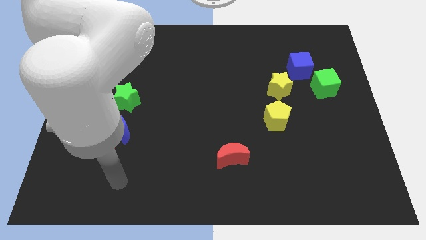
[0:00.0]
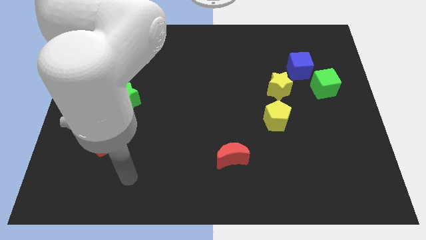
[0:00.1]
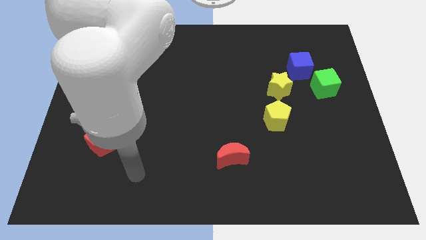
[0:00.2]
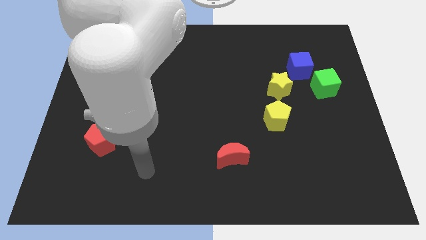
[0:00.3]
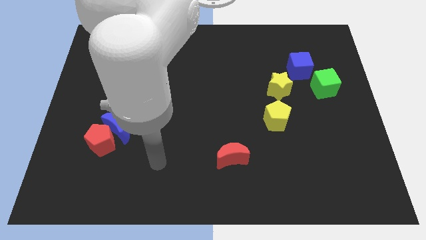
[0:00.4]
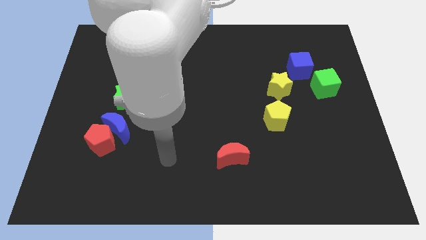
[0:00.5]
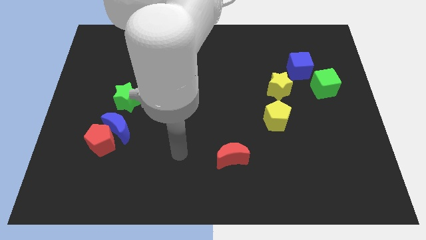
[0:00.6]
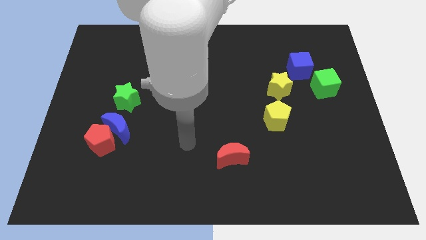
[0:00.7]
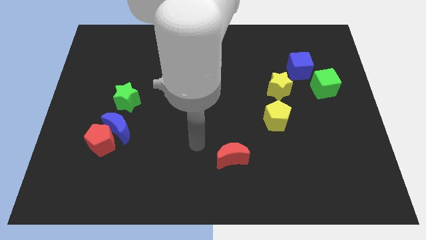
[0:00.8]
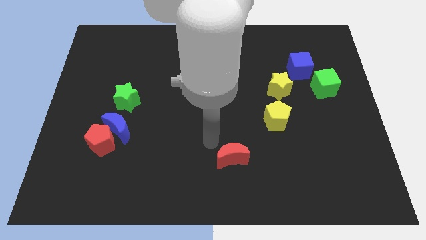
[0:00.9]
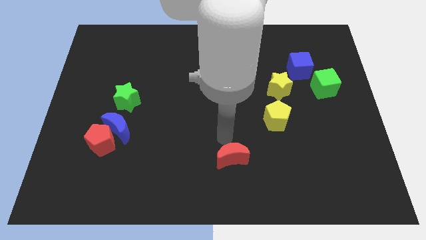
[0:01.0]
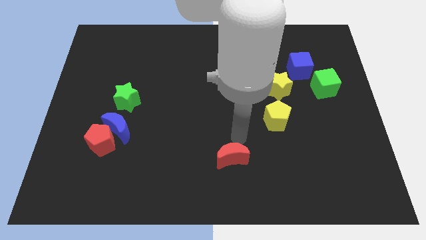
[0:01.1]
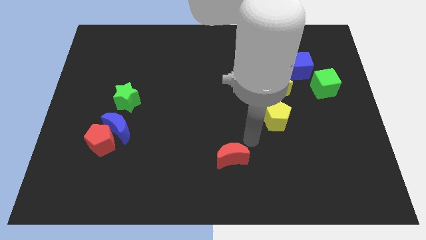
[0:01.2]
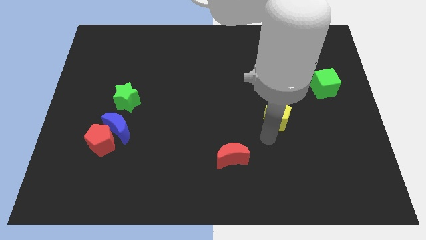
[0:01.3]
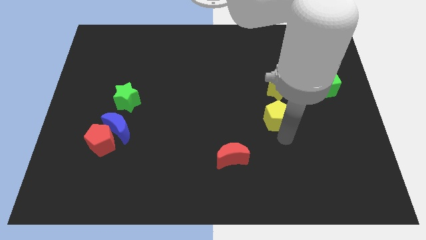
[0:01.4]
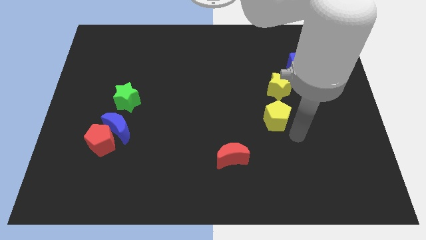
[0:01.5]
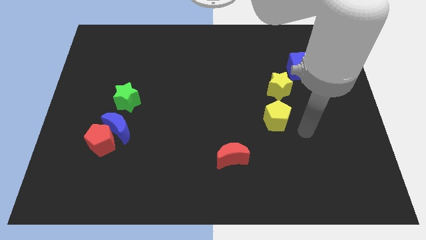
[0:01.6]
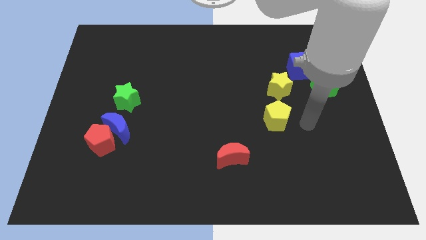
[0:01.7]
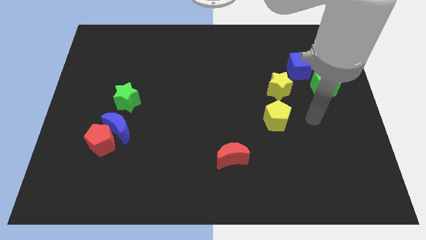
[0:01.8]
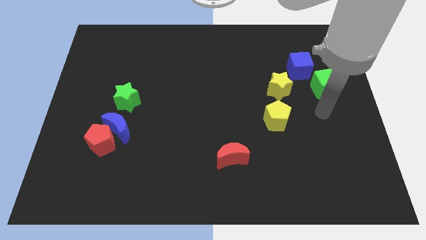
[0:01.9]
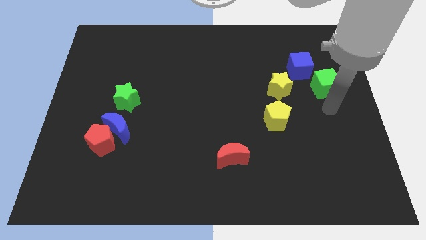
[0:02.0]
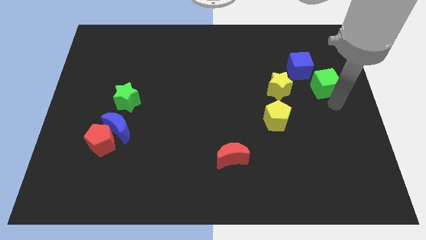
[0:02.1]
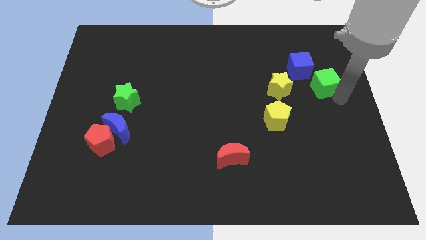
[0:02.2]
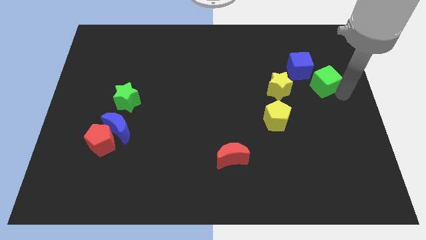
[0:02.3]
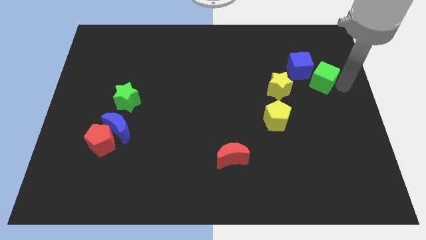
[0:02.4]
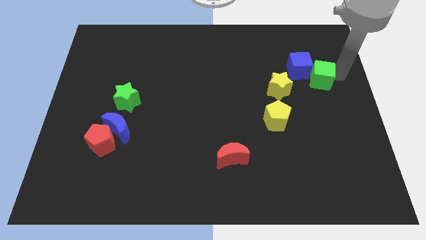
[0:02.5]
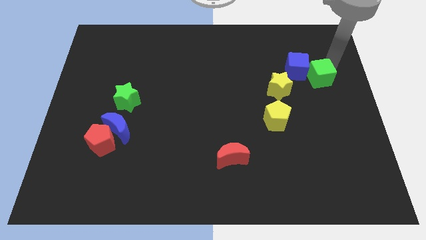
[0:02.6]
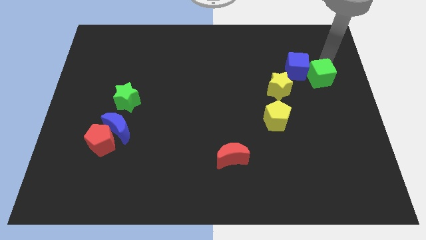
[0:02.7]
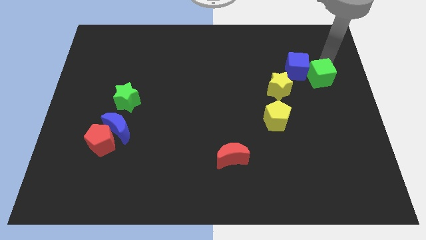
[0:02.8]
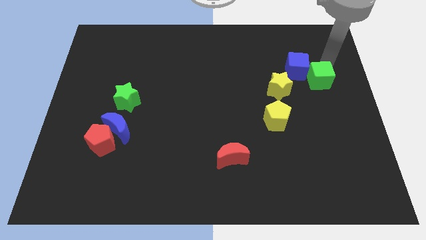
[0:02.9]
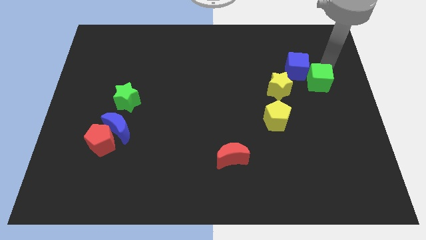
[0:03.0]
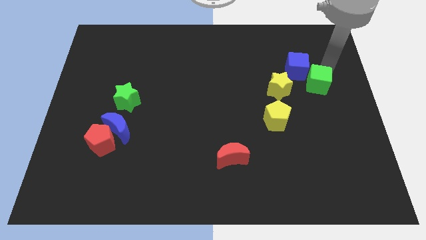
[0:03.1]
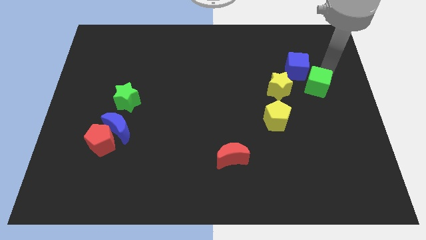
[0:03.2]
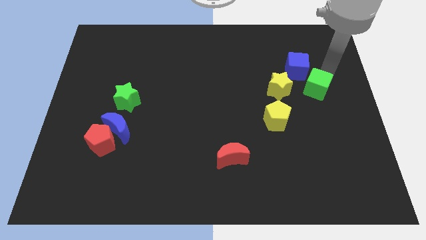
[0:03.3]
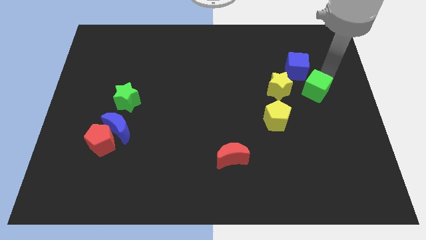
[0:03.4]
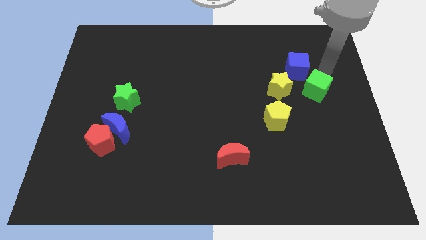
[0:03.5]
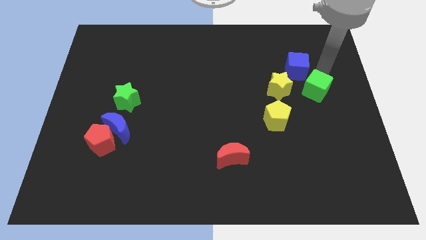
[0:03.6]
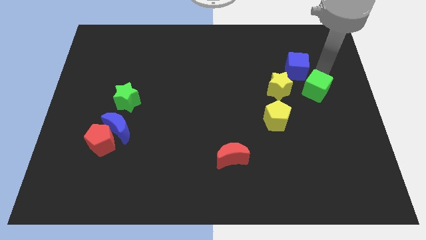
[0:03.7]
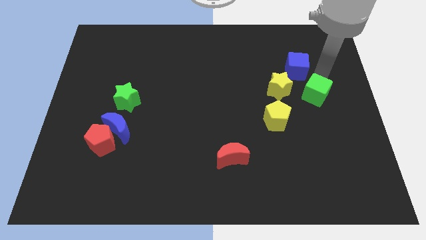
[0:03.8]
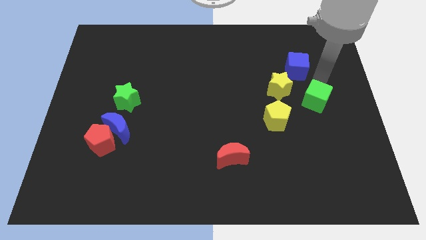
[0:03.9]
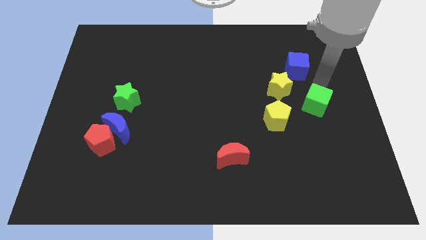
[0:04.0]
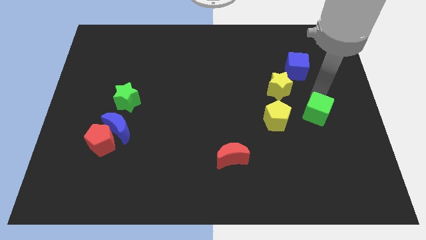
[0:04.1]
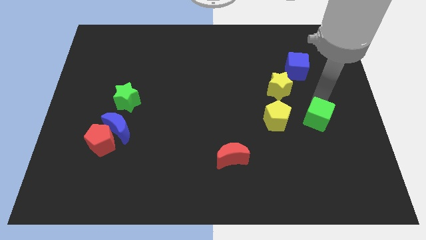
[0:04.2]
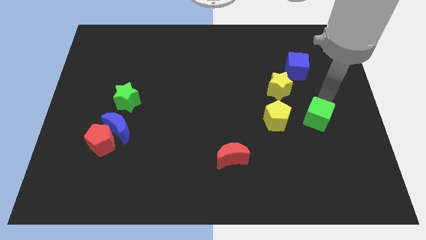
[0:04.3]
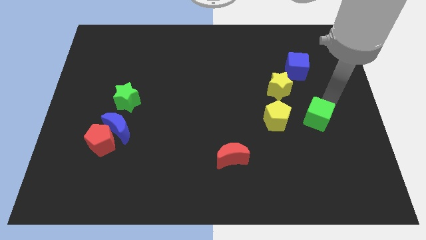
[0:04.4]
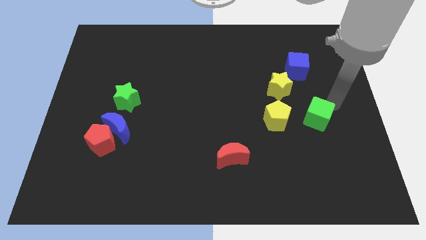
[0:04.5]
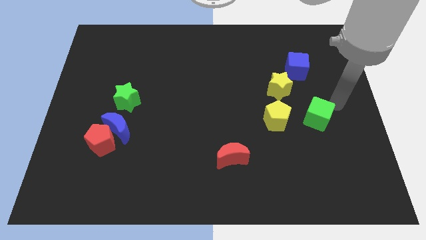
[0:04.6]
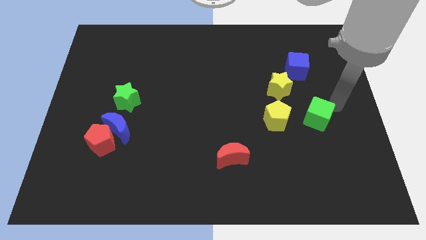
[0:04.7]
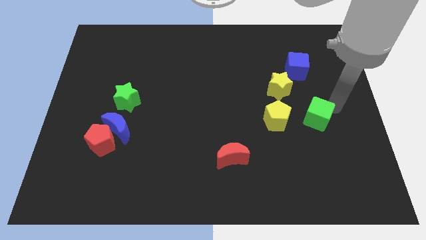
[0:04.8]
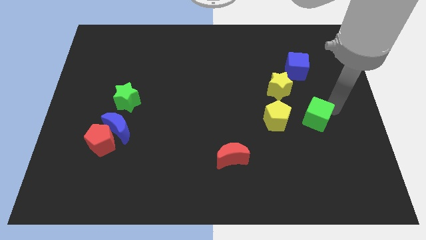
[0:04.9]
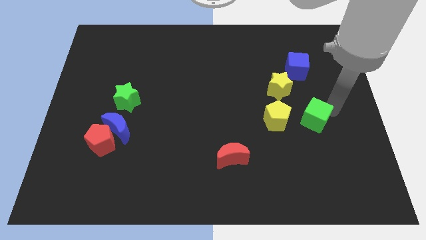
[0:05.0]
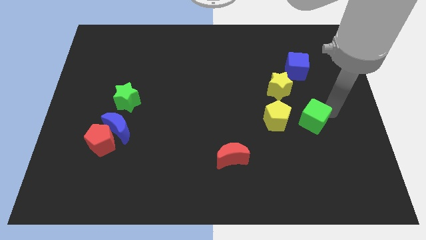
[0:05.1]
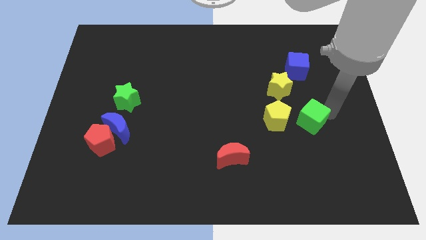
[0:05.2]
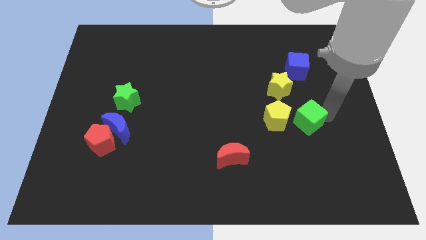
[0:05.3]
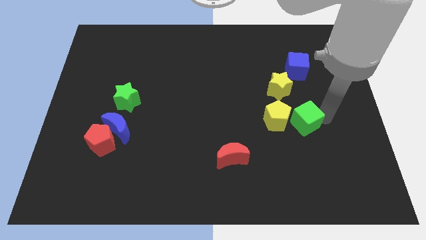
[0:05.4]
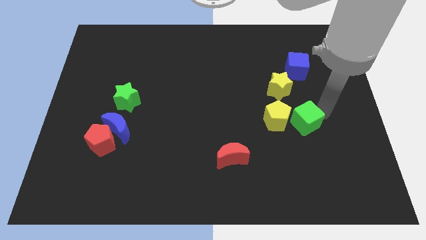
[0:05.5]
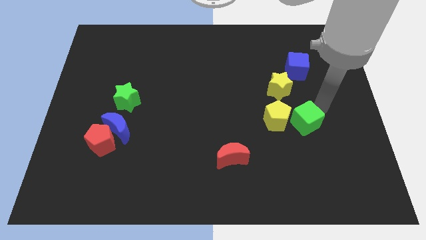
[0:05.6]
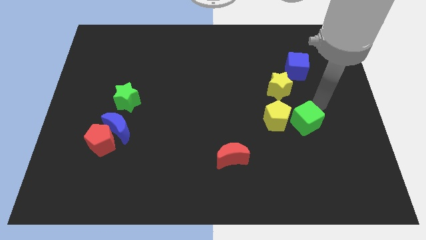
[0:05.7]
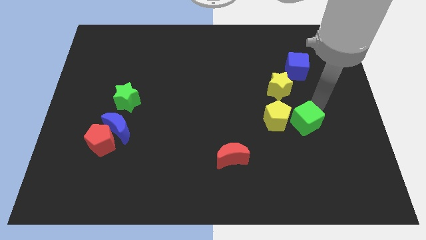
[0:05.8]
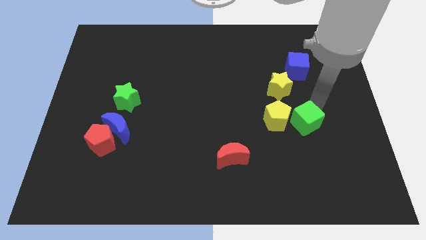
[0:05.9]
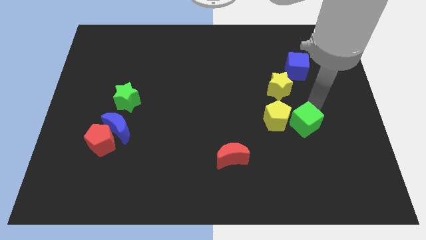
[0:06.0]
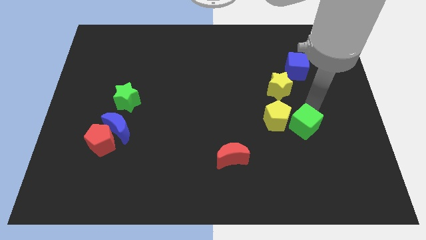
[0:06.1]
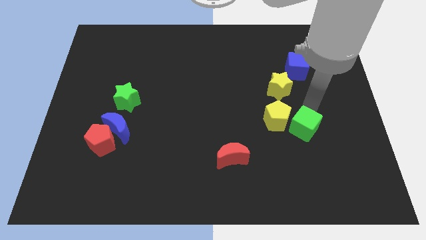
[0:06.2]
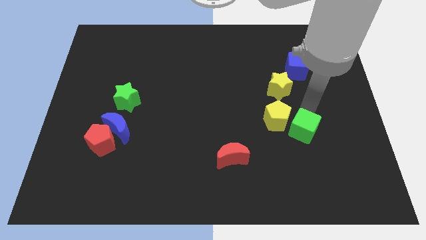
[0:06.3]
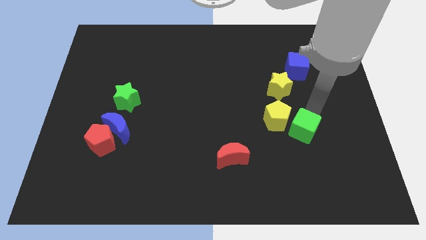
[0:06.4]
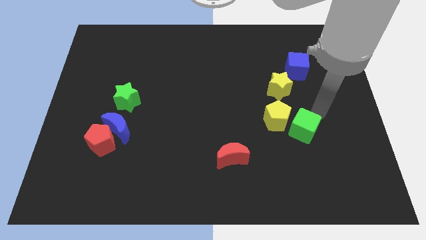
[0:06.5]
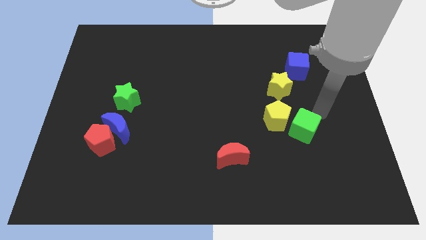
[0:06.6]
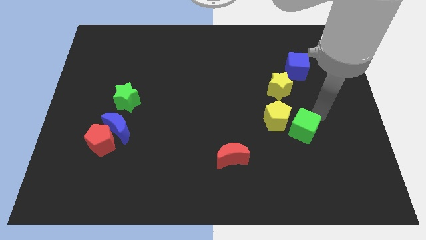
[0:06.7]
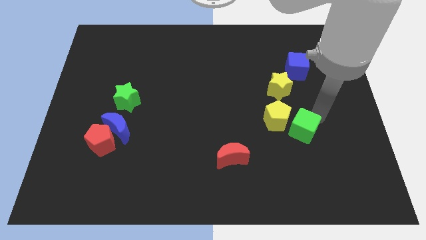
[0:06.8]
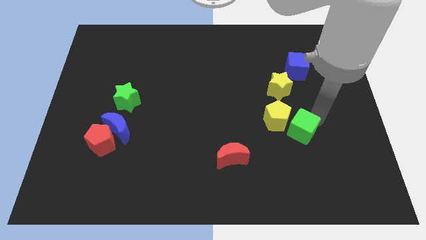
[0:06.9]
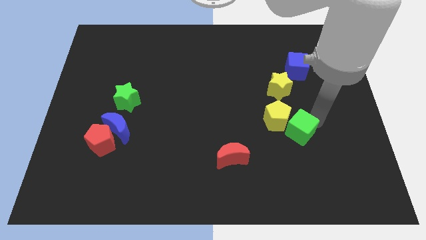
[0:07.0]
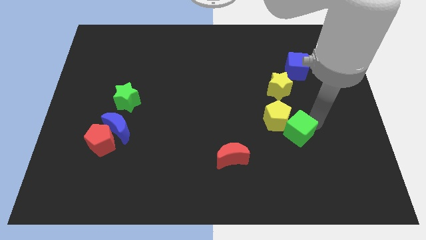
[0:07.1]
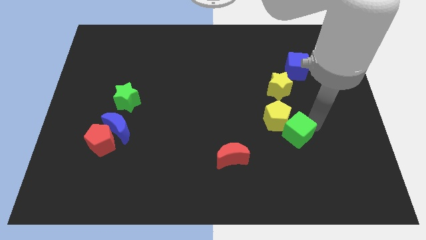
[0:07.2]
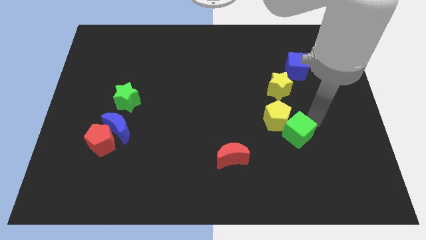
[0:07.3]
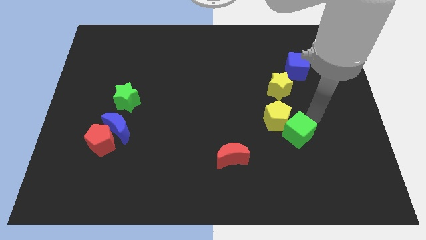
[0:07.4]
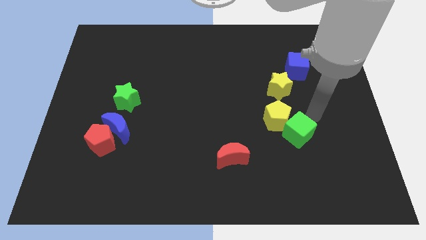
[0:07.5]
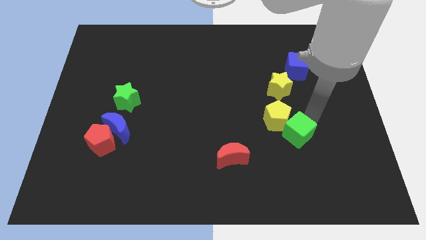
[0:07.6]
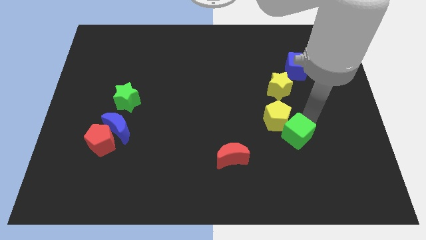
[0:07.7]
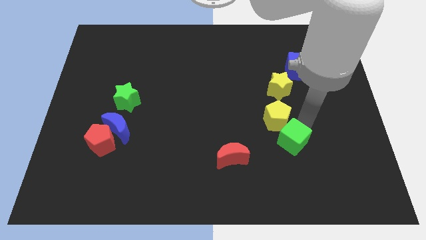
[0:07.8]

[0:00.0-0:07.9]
move the green cube just right of the red moon
